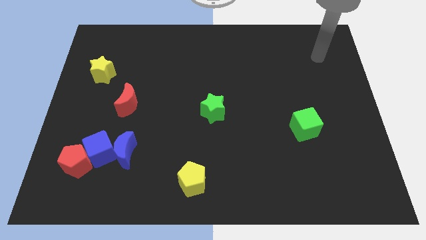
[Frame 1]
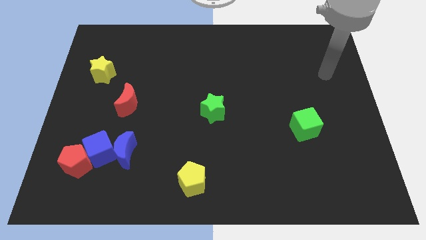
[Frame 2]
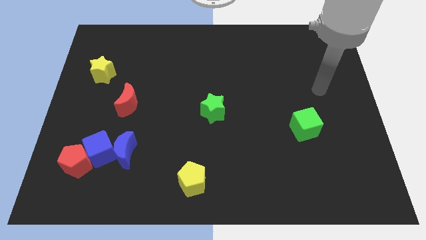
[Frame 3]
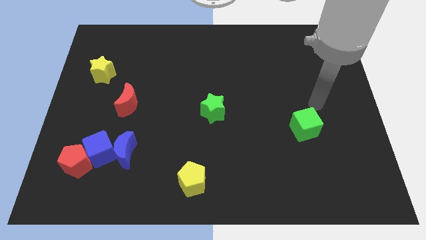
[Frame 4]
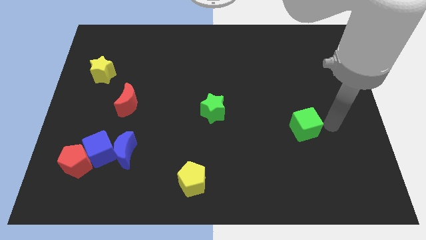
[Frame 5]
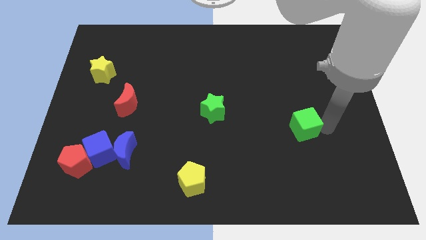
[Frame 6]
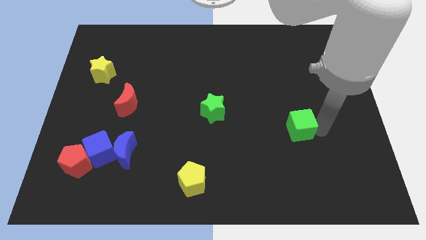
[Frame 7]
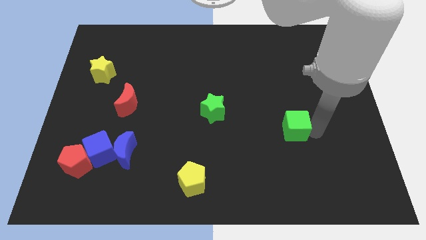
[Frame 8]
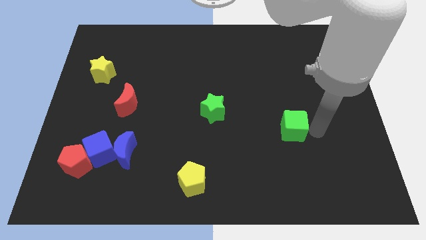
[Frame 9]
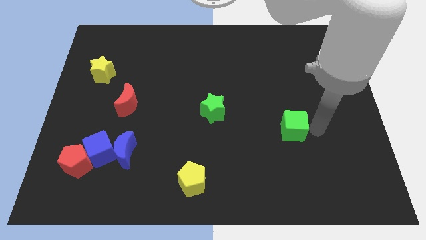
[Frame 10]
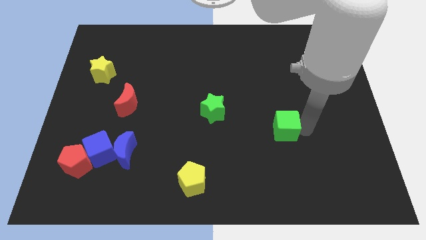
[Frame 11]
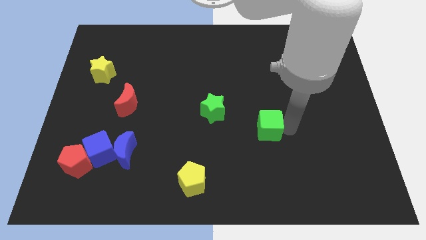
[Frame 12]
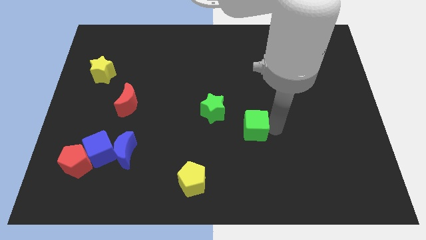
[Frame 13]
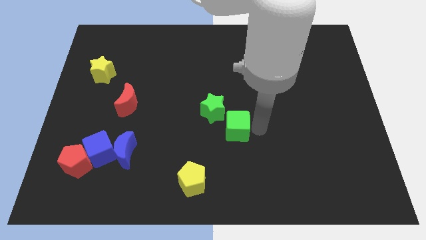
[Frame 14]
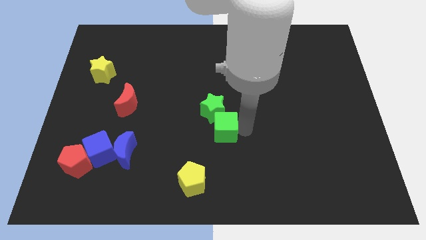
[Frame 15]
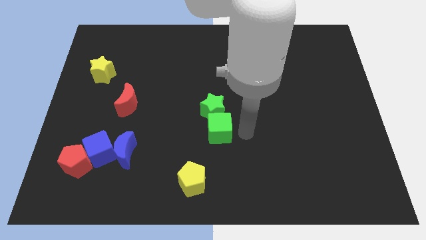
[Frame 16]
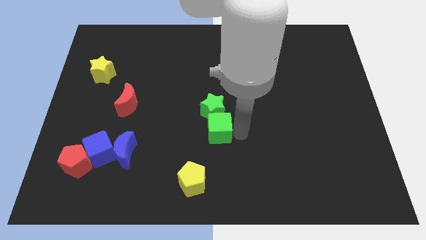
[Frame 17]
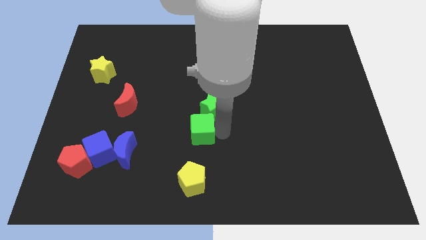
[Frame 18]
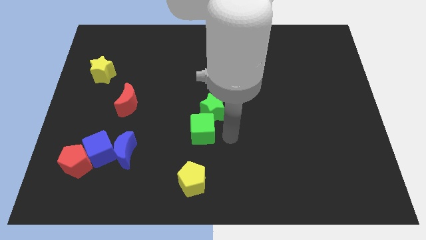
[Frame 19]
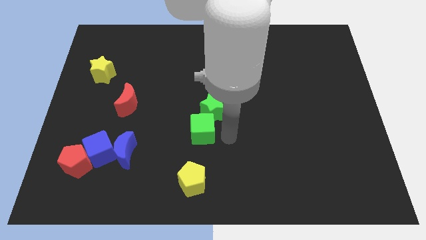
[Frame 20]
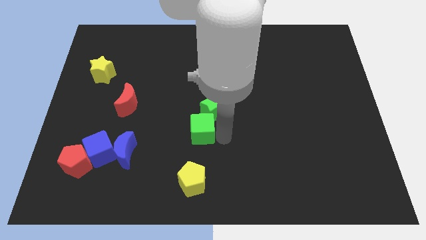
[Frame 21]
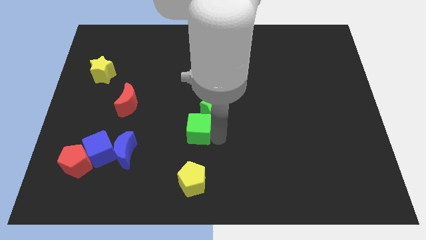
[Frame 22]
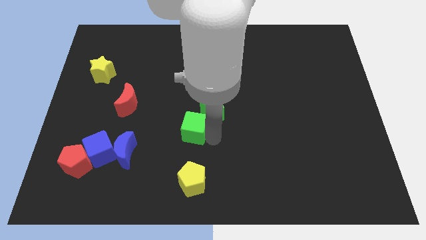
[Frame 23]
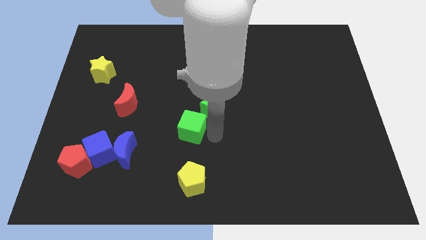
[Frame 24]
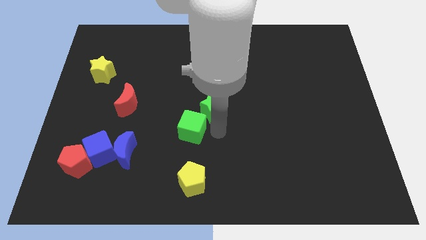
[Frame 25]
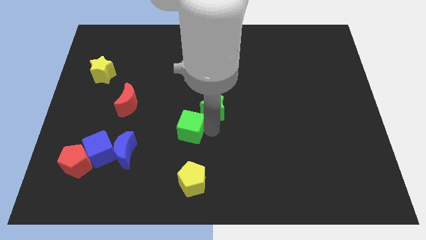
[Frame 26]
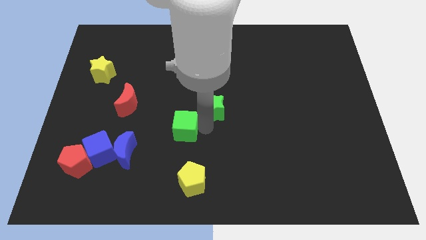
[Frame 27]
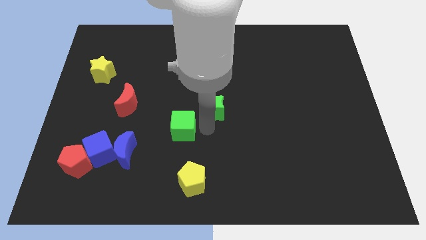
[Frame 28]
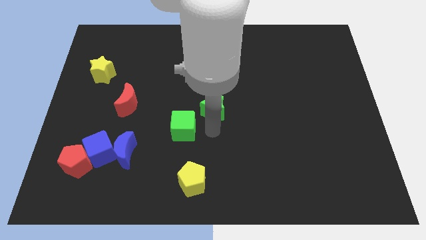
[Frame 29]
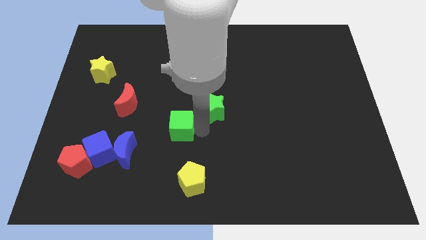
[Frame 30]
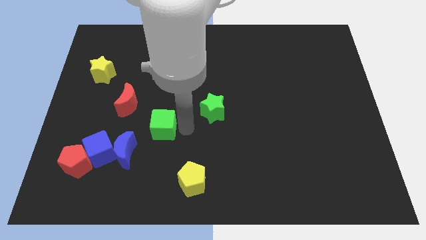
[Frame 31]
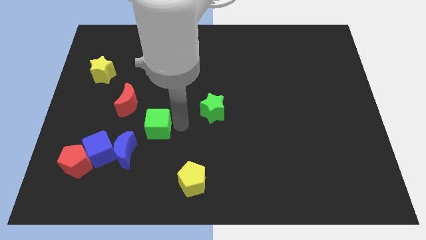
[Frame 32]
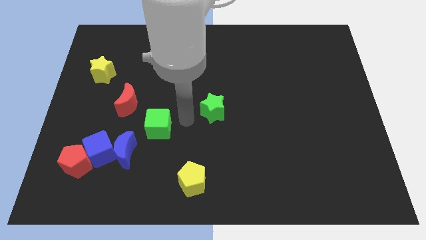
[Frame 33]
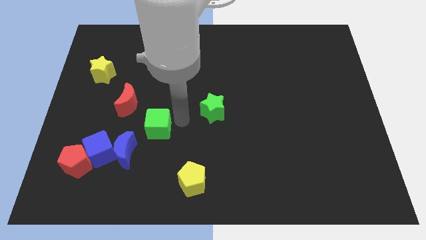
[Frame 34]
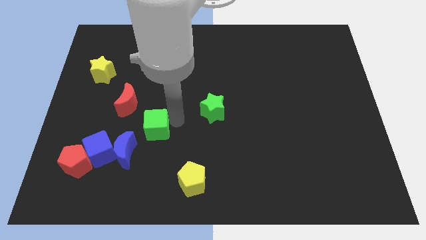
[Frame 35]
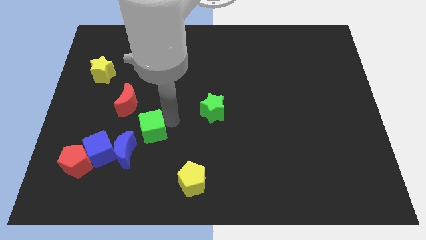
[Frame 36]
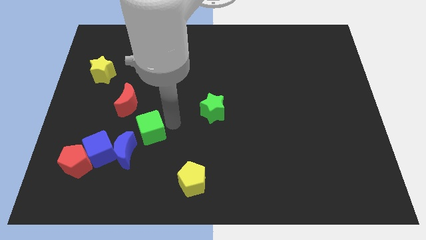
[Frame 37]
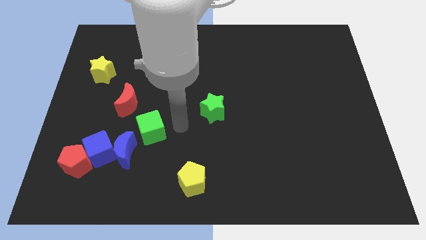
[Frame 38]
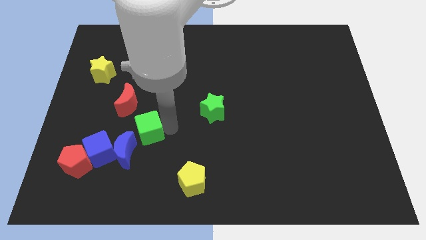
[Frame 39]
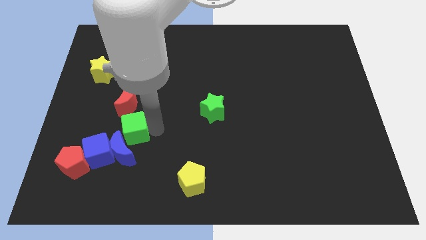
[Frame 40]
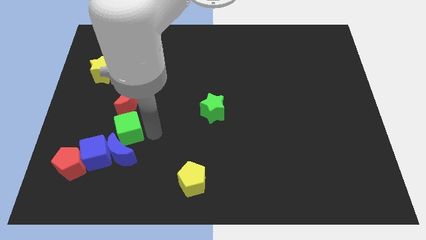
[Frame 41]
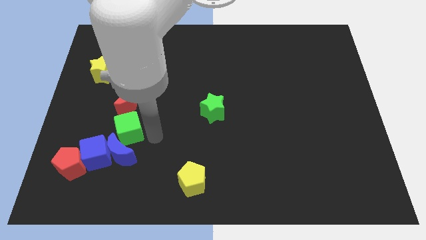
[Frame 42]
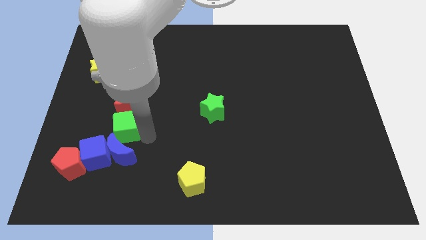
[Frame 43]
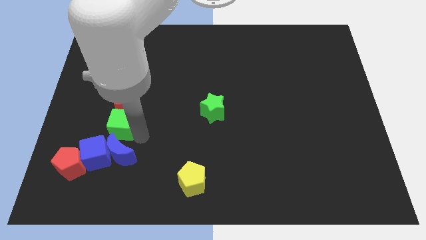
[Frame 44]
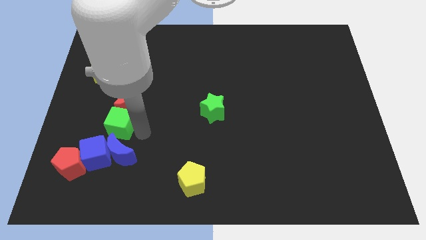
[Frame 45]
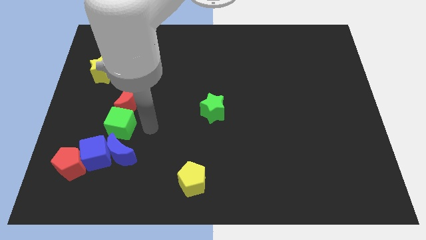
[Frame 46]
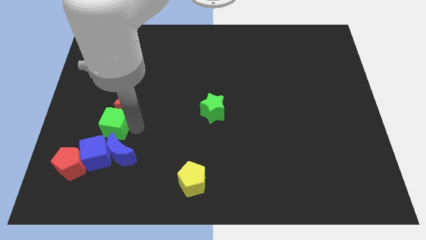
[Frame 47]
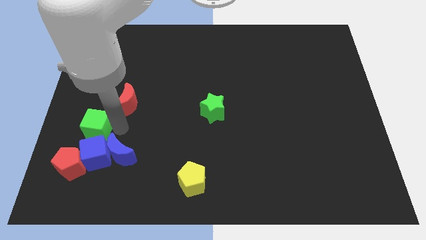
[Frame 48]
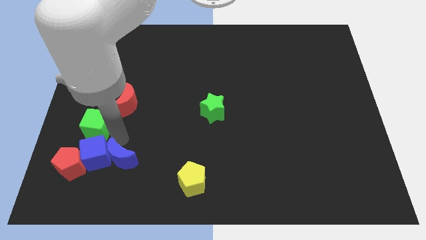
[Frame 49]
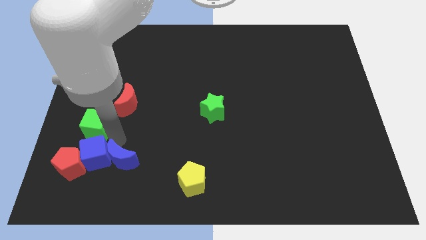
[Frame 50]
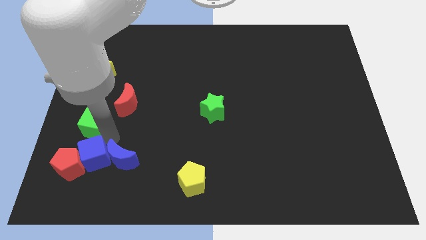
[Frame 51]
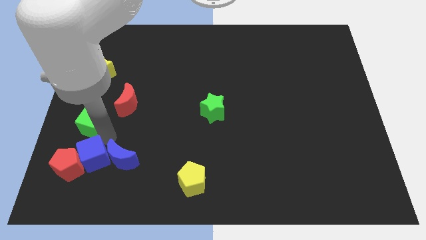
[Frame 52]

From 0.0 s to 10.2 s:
move the green cube to the center left

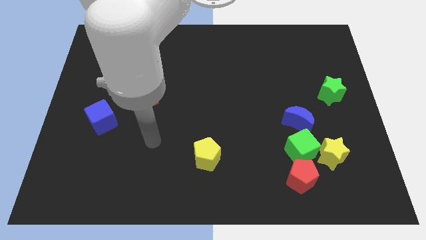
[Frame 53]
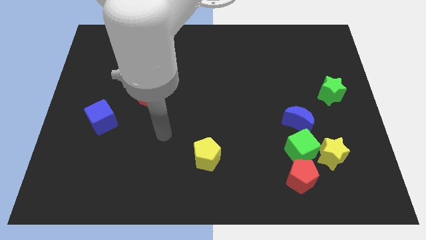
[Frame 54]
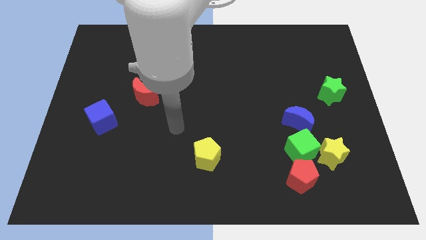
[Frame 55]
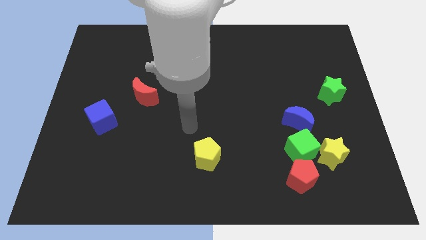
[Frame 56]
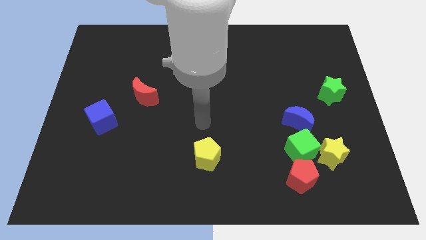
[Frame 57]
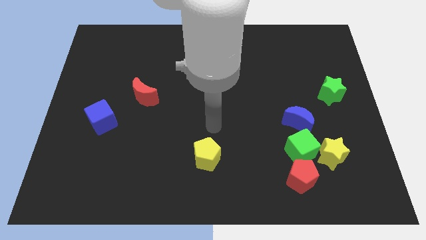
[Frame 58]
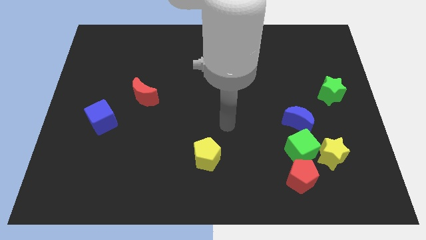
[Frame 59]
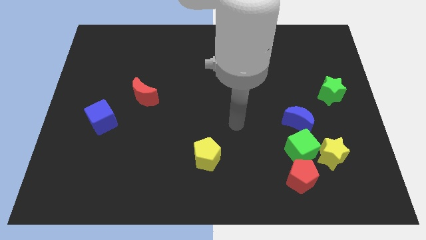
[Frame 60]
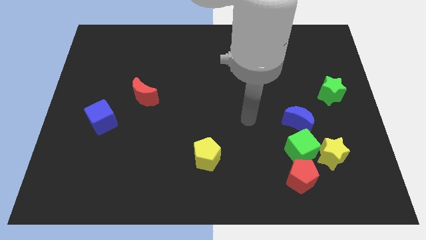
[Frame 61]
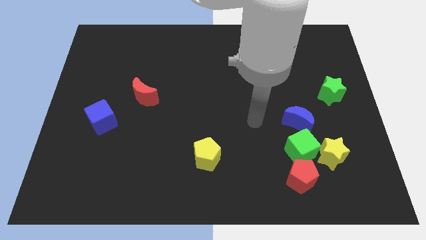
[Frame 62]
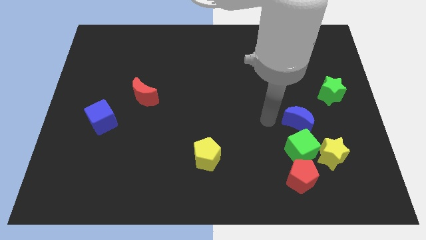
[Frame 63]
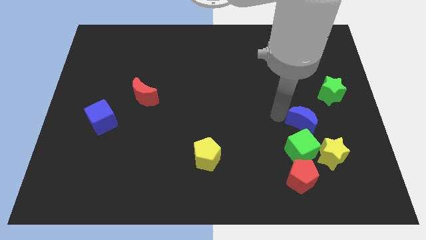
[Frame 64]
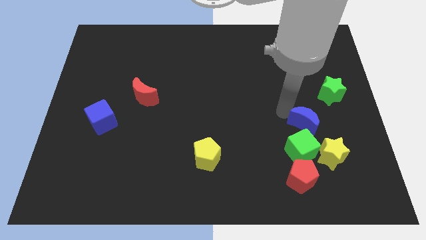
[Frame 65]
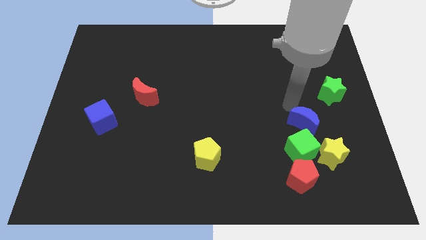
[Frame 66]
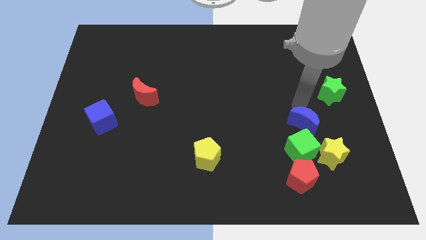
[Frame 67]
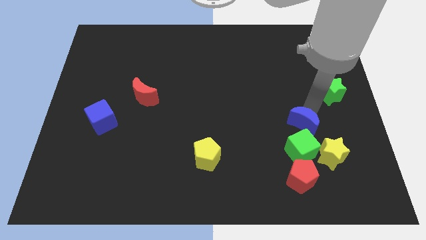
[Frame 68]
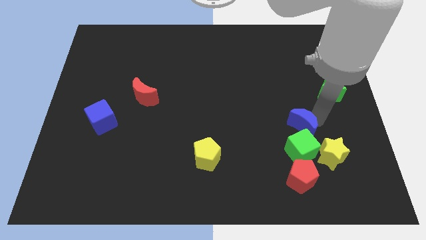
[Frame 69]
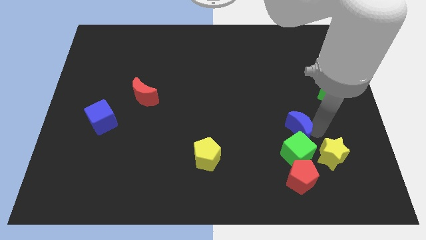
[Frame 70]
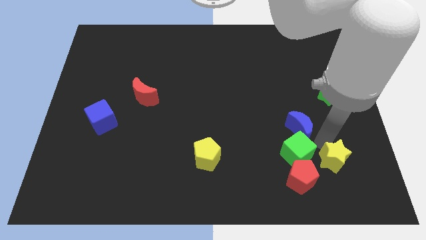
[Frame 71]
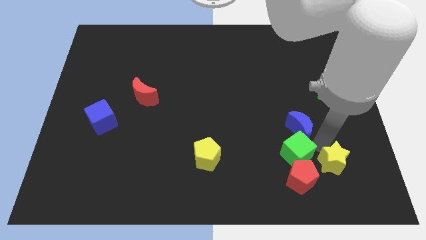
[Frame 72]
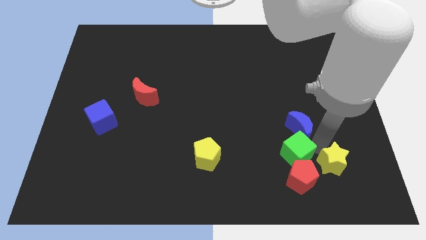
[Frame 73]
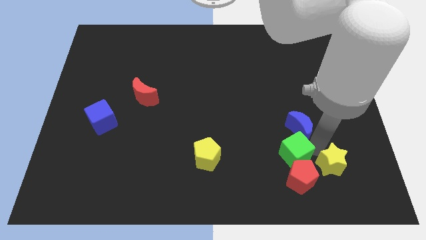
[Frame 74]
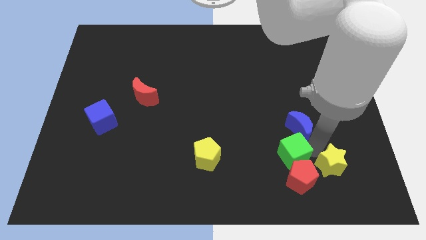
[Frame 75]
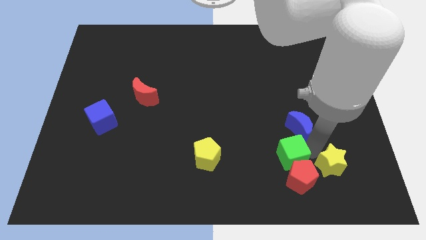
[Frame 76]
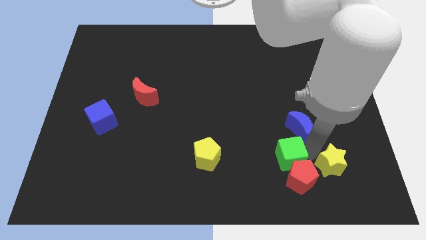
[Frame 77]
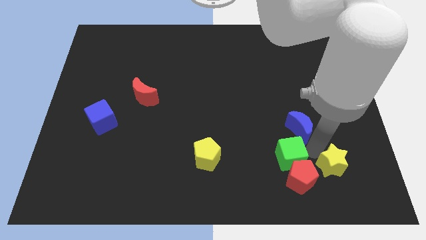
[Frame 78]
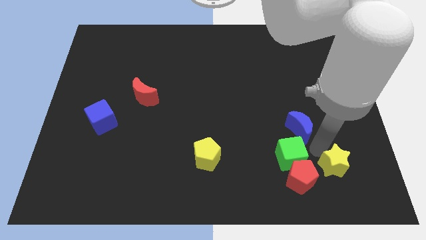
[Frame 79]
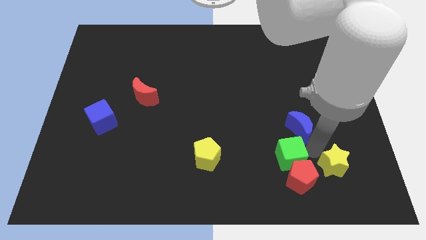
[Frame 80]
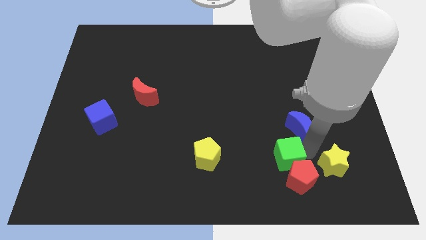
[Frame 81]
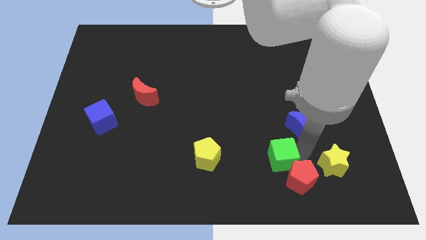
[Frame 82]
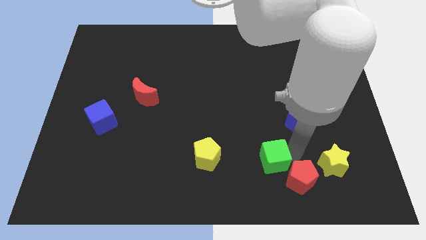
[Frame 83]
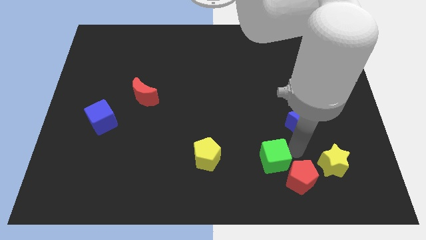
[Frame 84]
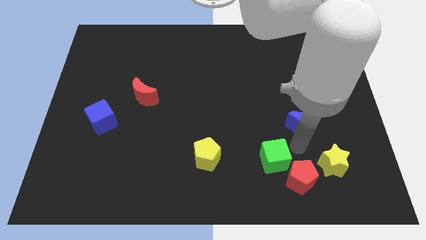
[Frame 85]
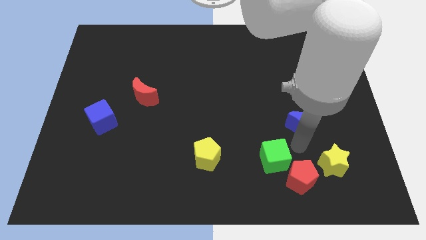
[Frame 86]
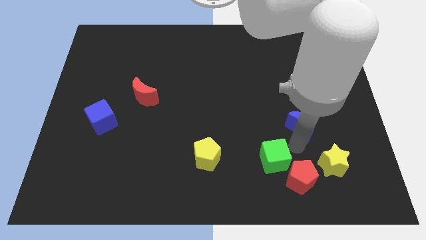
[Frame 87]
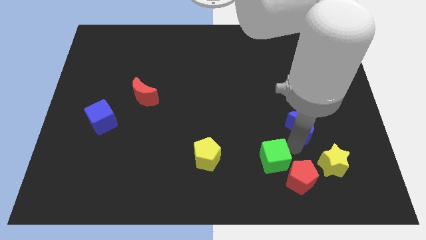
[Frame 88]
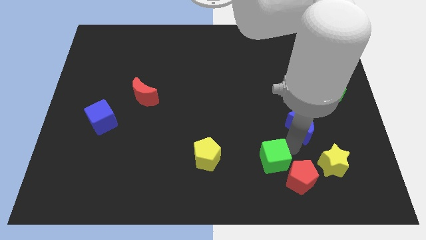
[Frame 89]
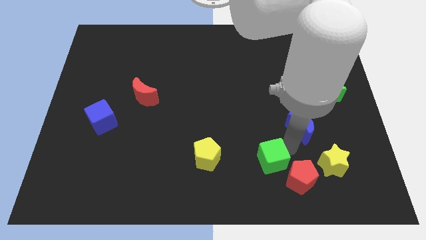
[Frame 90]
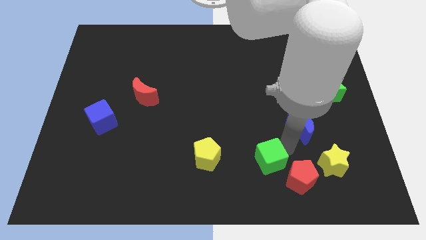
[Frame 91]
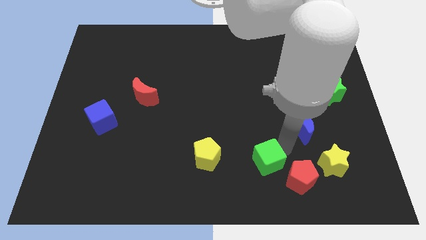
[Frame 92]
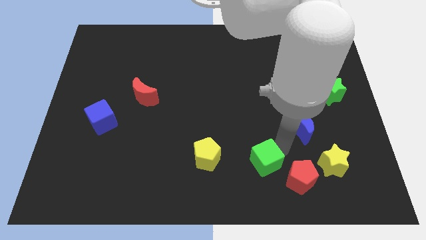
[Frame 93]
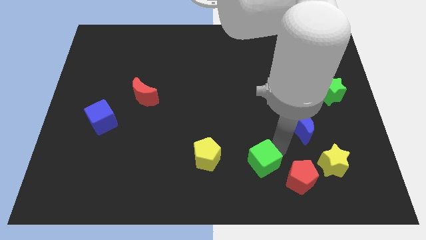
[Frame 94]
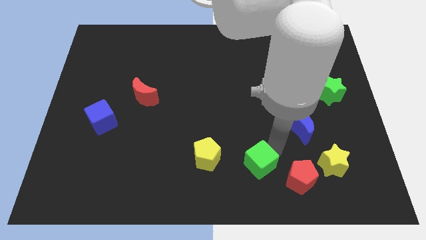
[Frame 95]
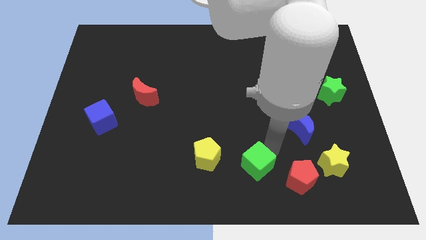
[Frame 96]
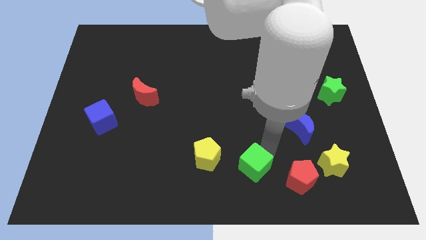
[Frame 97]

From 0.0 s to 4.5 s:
put the green cube to the bottom
